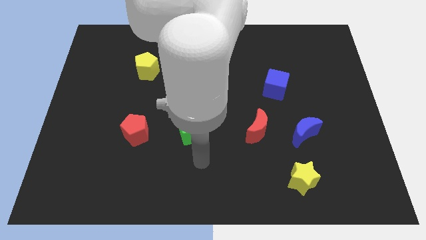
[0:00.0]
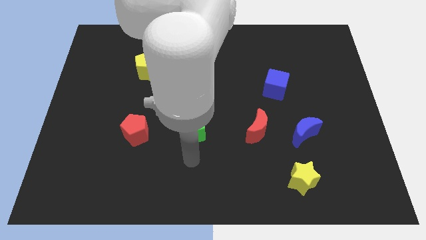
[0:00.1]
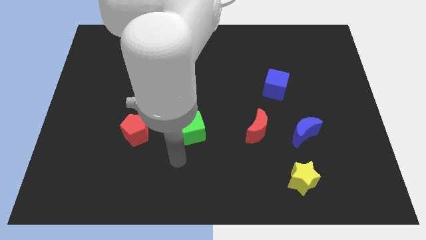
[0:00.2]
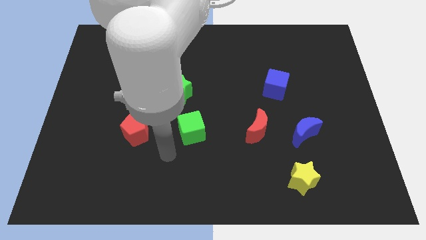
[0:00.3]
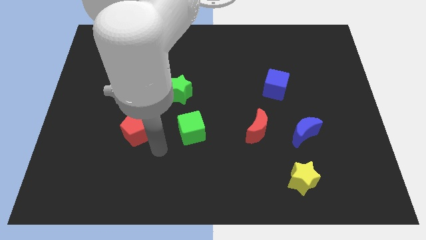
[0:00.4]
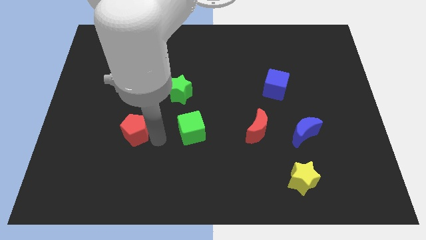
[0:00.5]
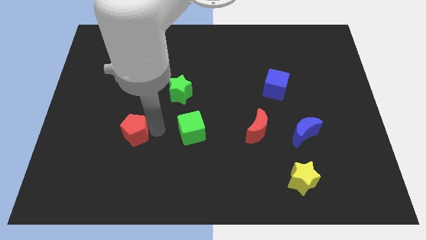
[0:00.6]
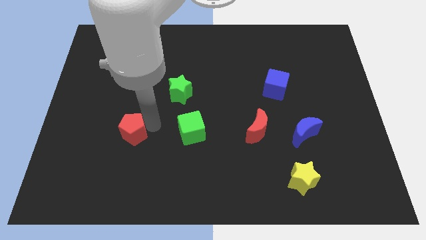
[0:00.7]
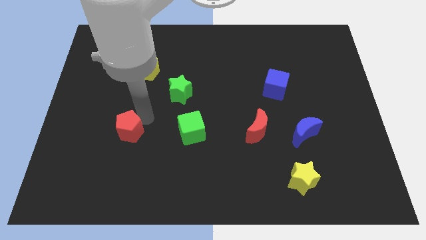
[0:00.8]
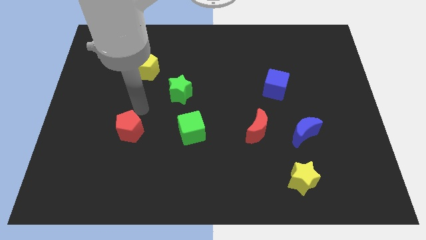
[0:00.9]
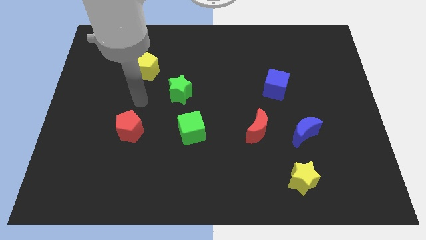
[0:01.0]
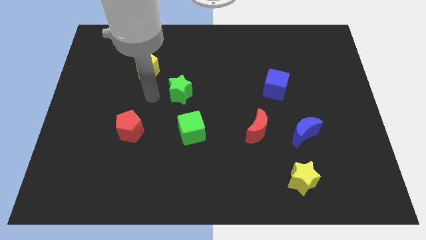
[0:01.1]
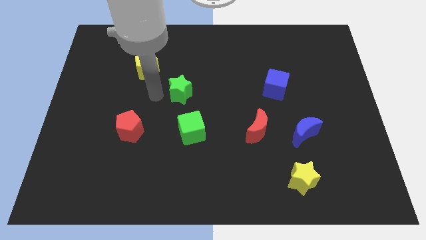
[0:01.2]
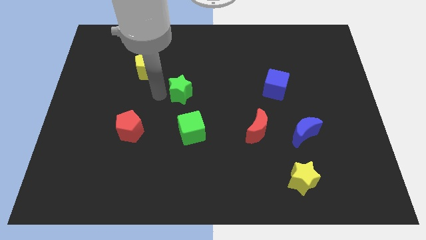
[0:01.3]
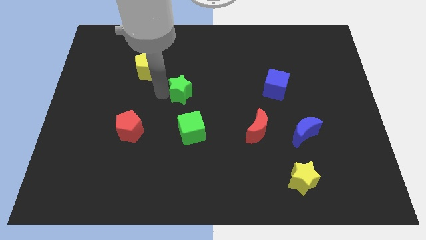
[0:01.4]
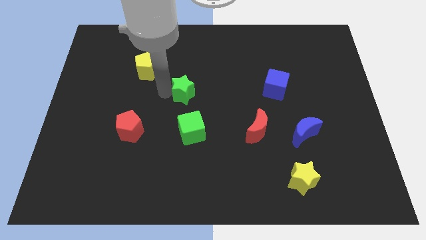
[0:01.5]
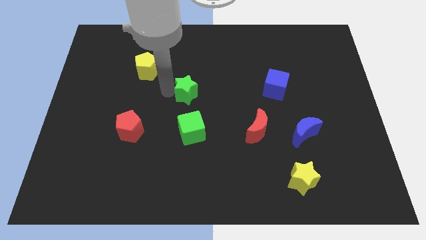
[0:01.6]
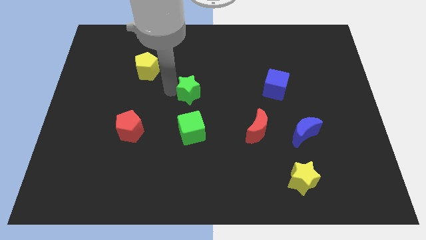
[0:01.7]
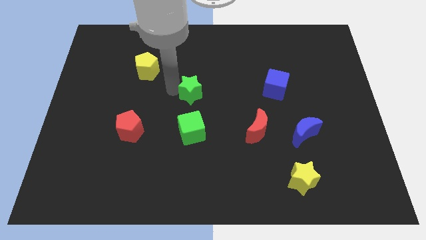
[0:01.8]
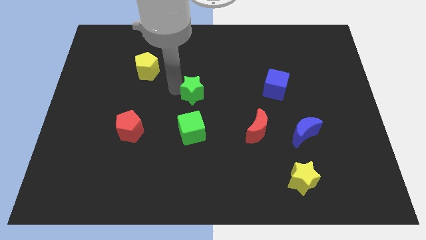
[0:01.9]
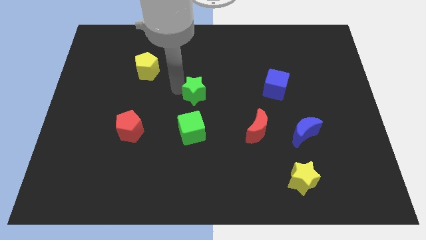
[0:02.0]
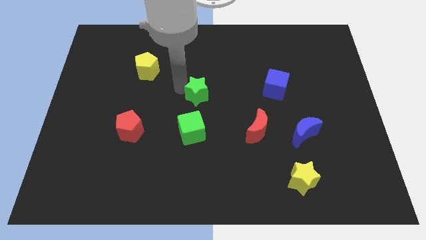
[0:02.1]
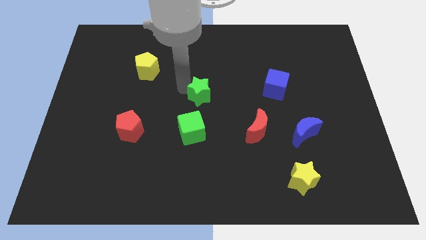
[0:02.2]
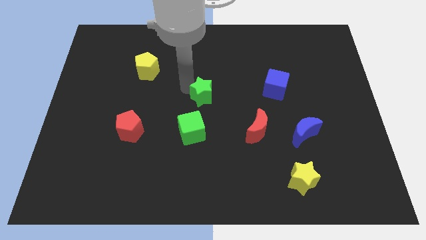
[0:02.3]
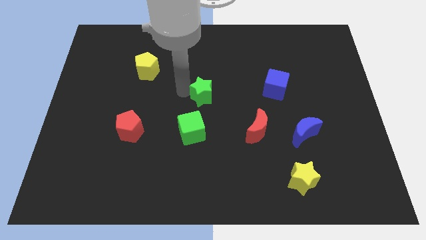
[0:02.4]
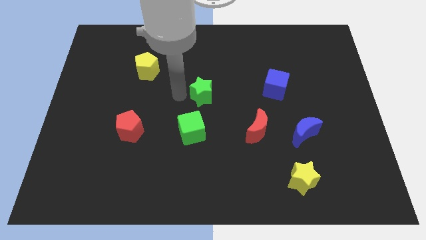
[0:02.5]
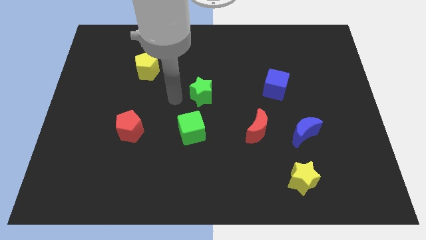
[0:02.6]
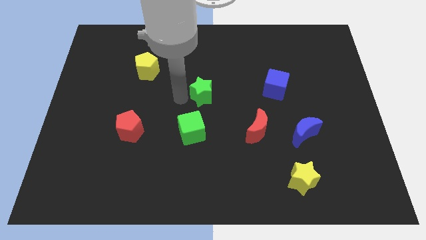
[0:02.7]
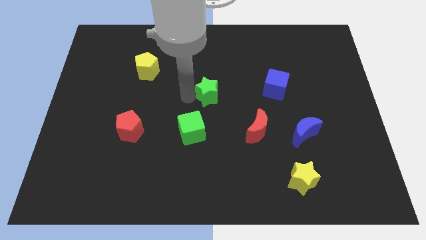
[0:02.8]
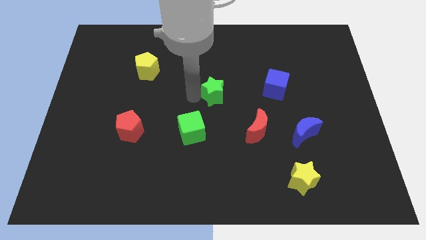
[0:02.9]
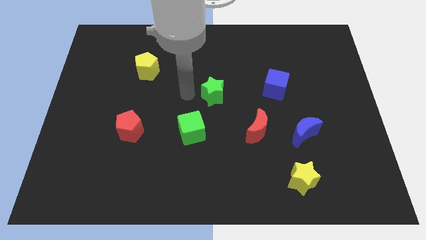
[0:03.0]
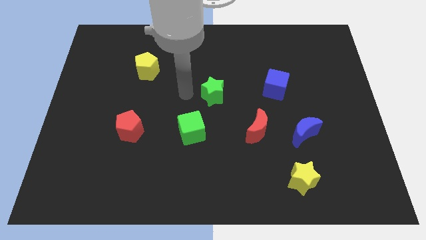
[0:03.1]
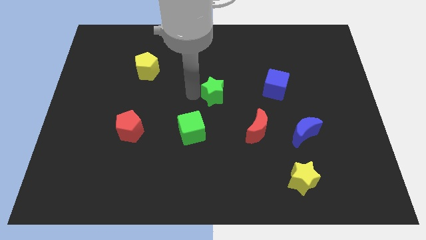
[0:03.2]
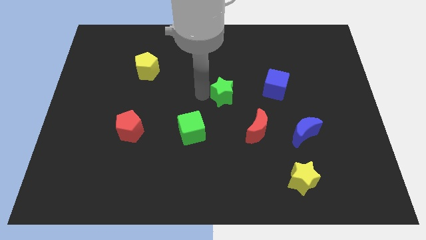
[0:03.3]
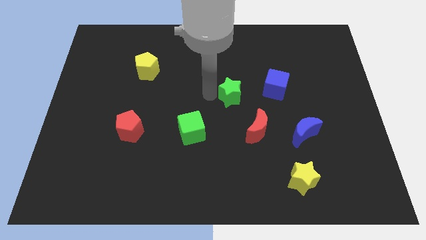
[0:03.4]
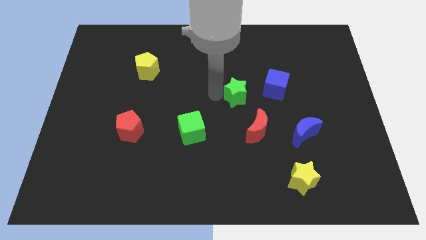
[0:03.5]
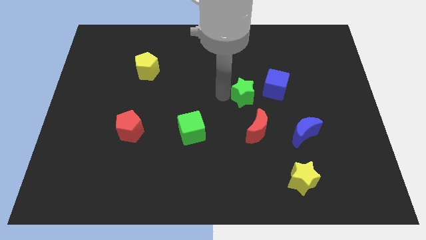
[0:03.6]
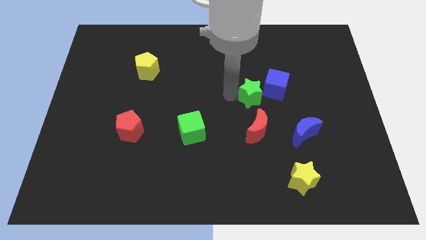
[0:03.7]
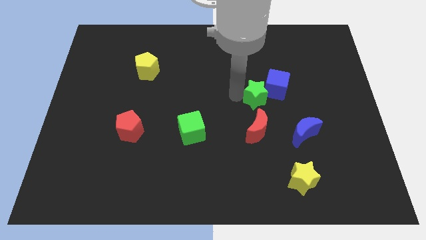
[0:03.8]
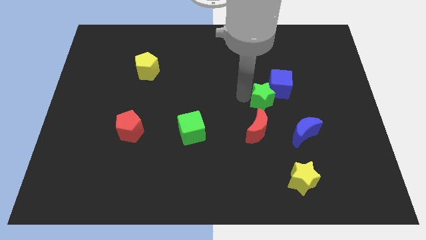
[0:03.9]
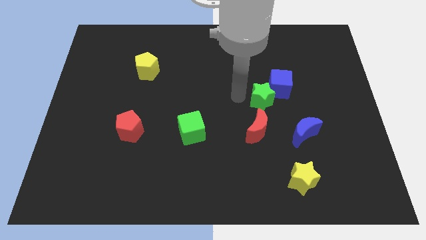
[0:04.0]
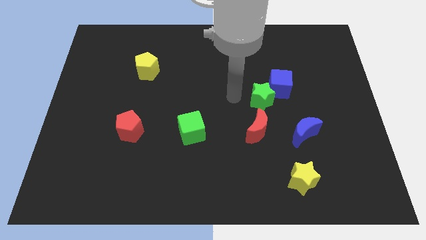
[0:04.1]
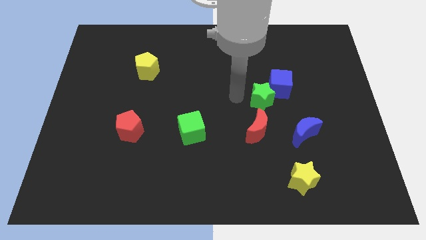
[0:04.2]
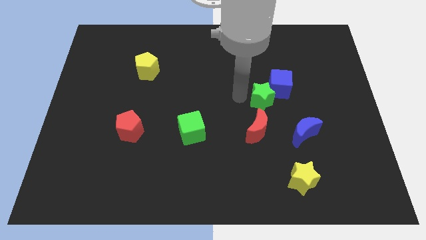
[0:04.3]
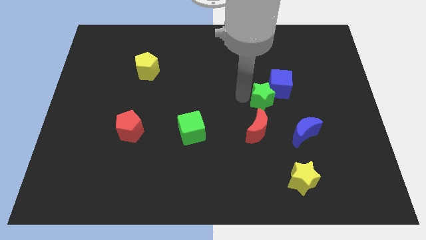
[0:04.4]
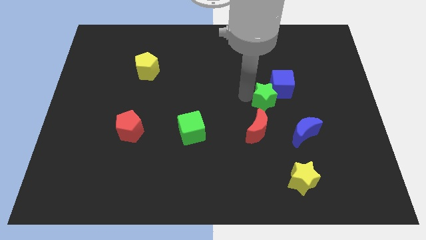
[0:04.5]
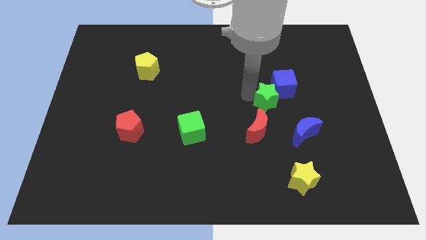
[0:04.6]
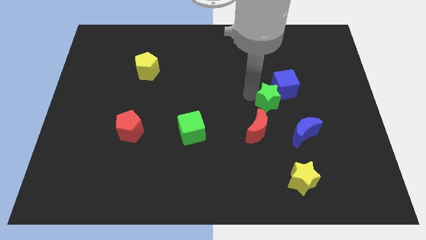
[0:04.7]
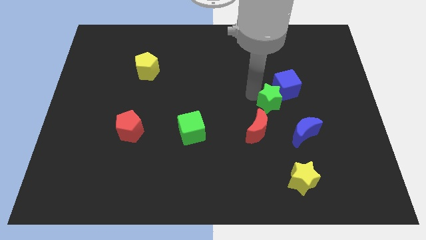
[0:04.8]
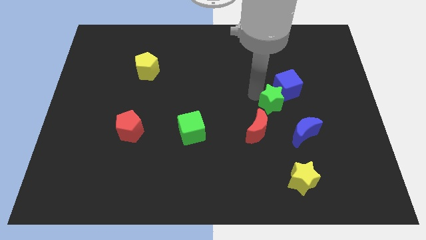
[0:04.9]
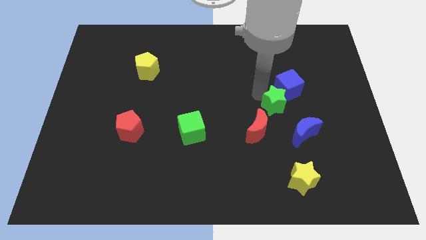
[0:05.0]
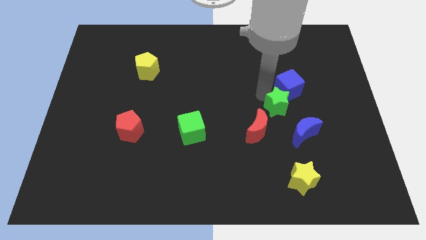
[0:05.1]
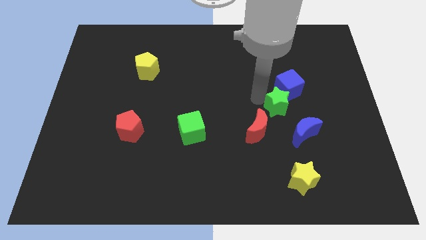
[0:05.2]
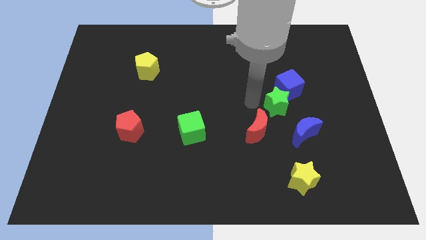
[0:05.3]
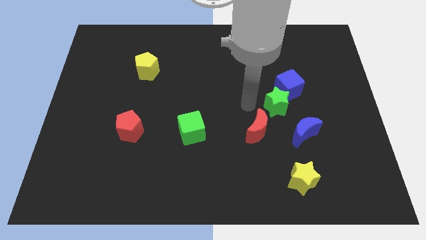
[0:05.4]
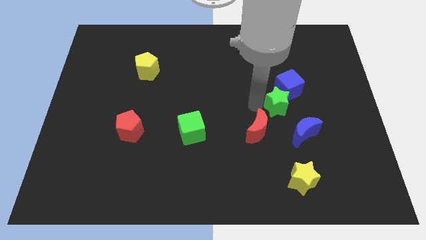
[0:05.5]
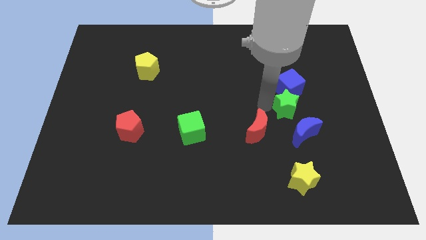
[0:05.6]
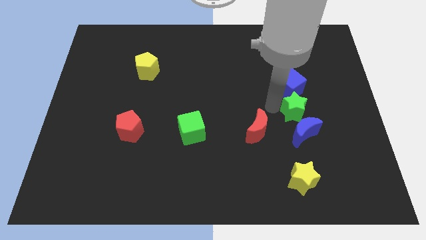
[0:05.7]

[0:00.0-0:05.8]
put the green star diagonally down and to the right of the blue cube

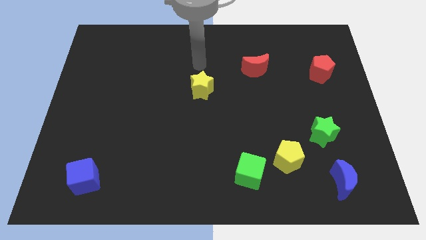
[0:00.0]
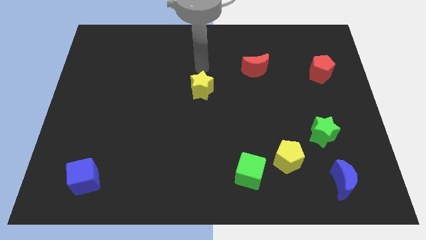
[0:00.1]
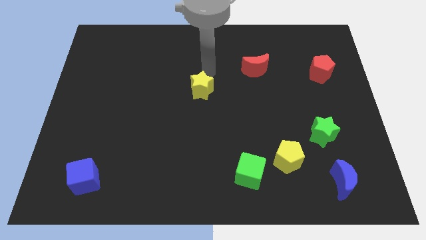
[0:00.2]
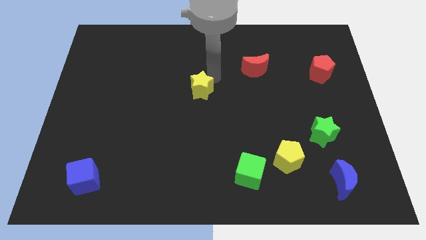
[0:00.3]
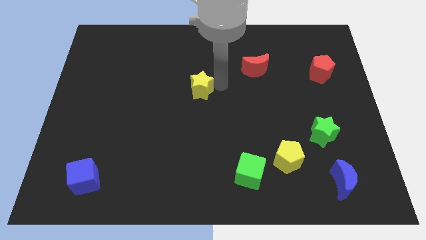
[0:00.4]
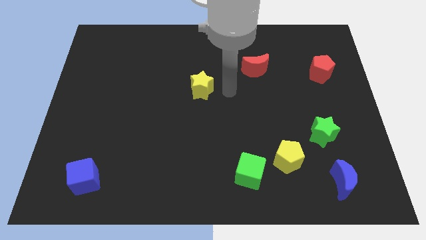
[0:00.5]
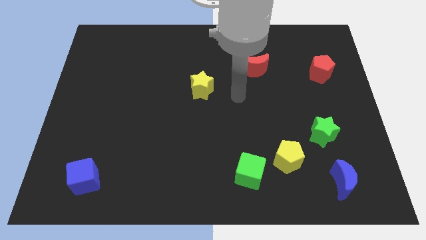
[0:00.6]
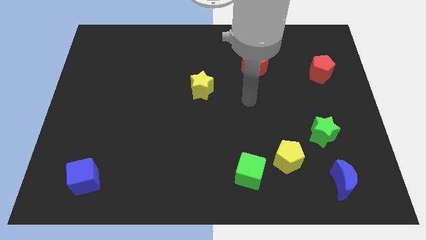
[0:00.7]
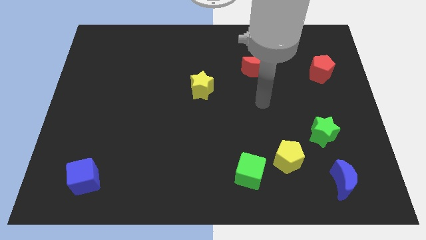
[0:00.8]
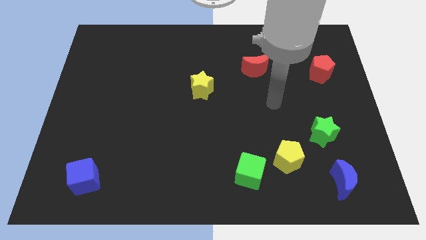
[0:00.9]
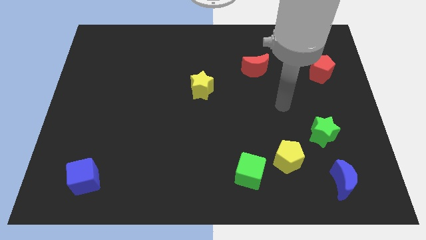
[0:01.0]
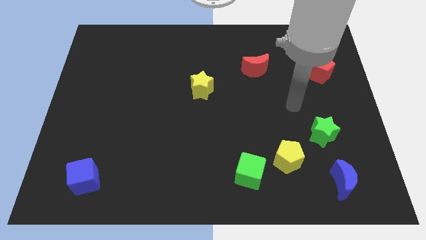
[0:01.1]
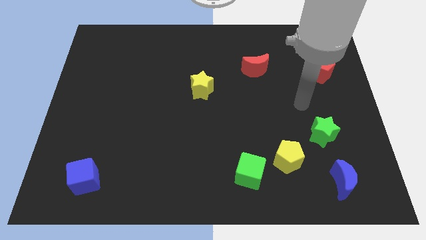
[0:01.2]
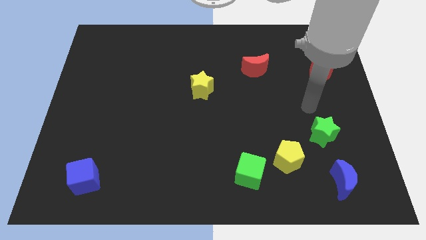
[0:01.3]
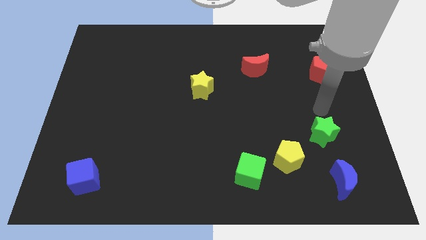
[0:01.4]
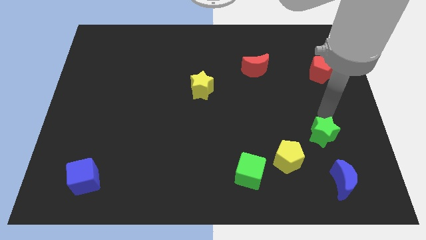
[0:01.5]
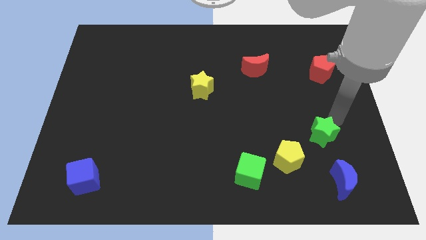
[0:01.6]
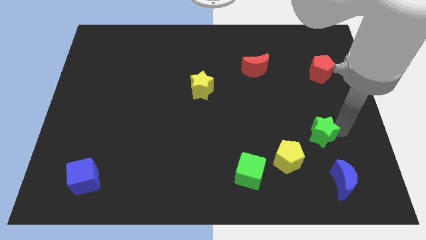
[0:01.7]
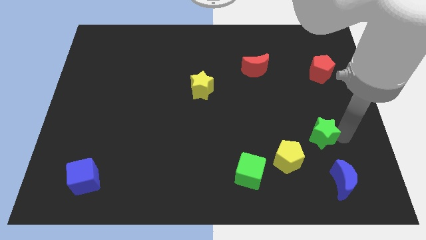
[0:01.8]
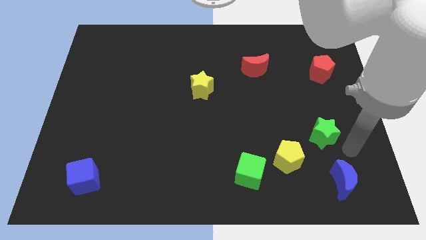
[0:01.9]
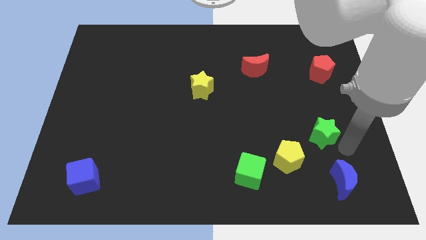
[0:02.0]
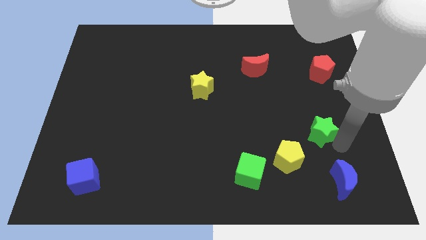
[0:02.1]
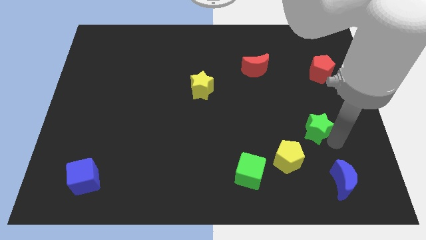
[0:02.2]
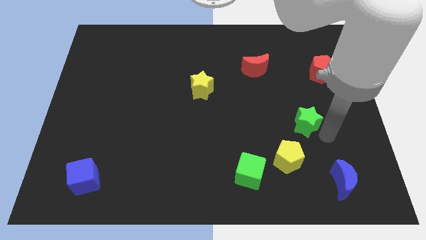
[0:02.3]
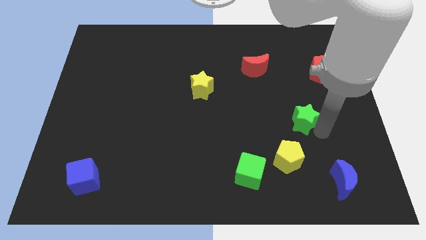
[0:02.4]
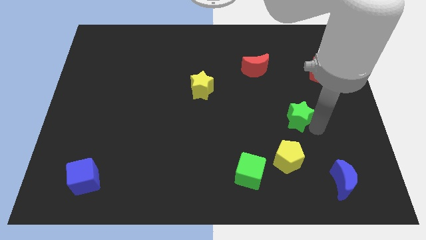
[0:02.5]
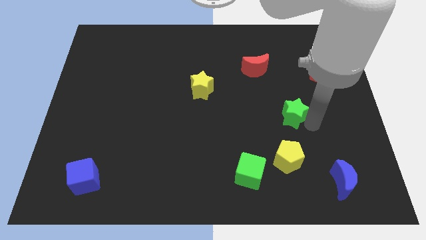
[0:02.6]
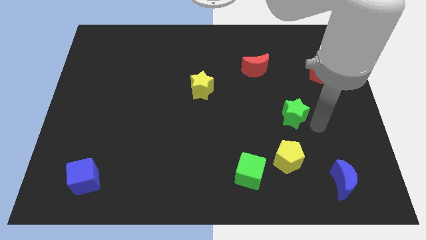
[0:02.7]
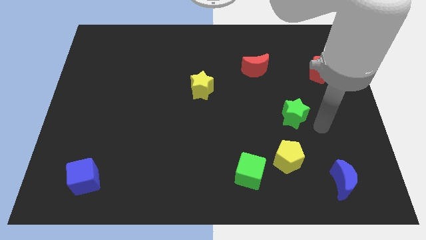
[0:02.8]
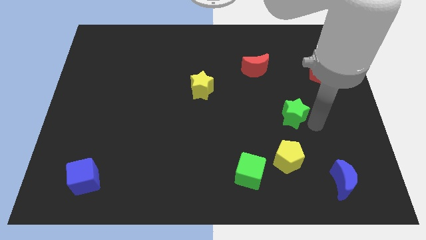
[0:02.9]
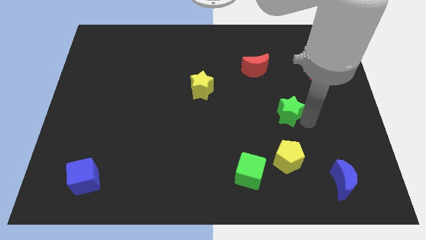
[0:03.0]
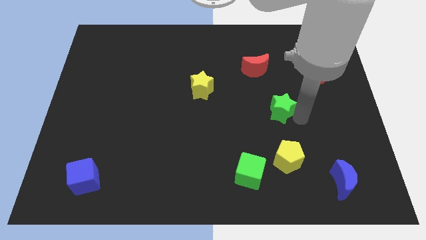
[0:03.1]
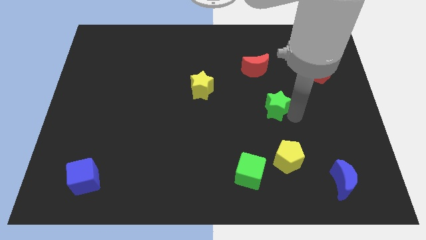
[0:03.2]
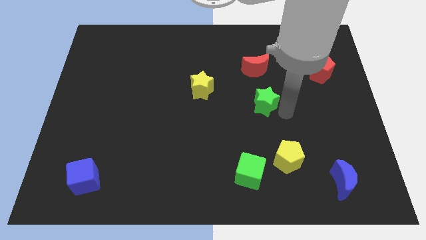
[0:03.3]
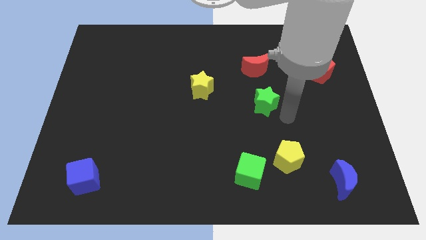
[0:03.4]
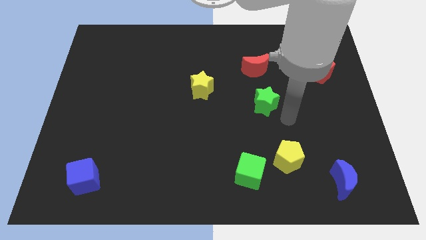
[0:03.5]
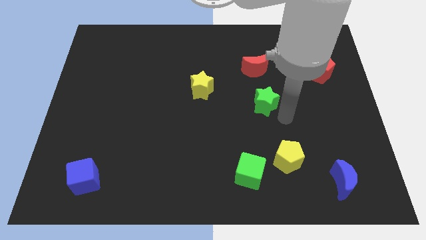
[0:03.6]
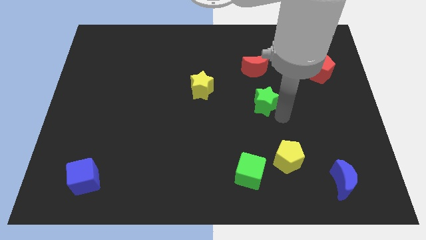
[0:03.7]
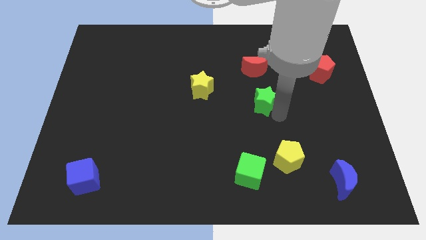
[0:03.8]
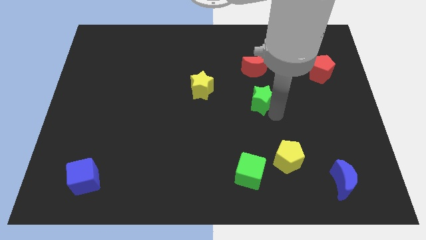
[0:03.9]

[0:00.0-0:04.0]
slide the green star right of the yellow star
